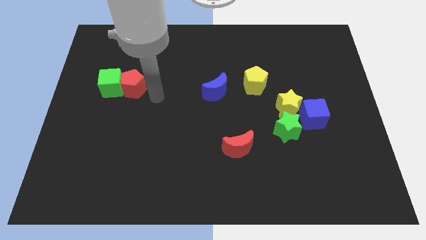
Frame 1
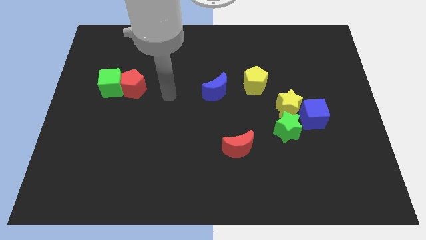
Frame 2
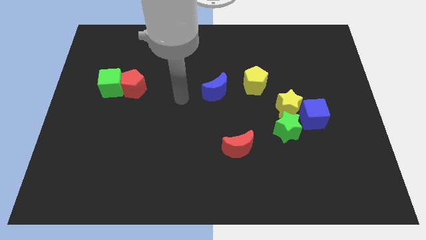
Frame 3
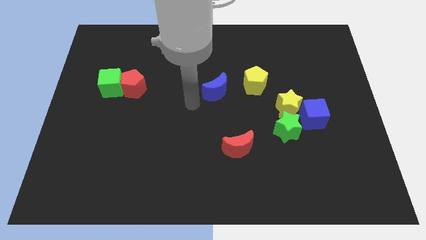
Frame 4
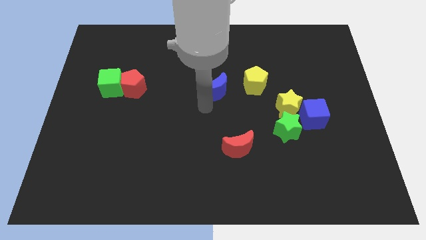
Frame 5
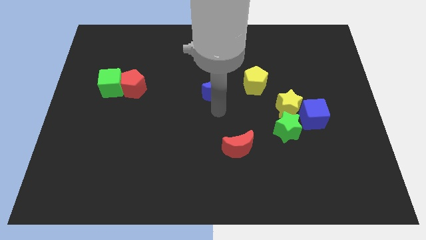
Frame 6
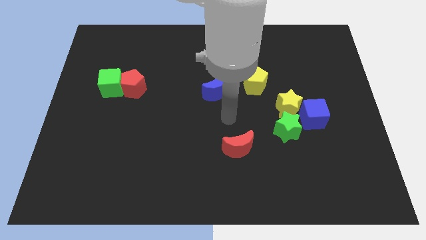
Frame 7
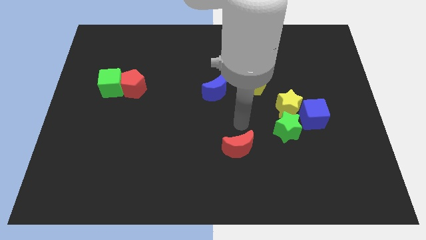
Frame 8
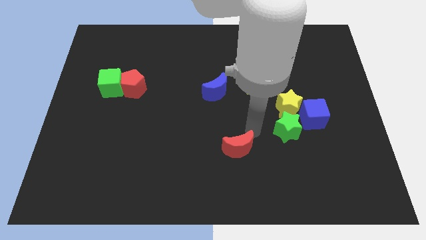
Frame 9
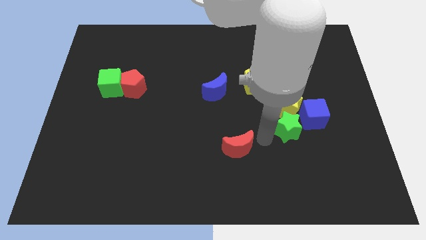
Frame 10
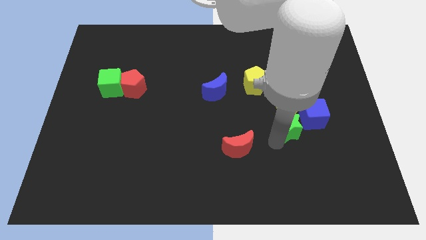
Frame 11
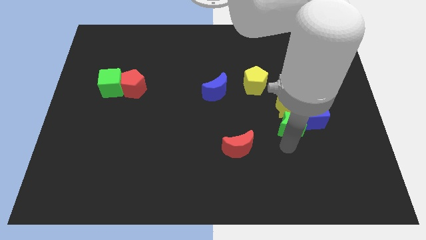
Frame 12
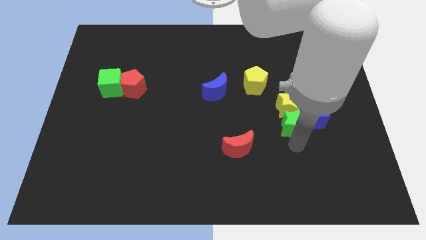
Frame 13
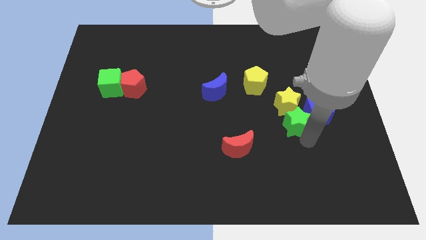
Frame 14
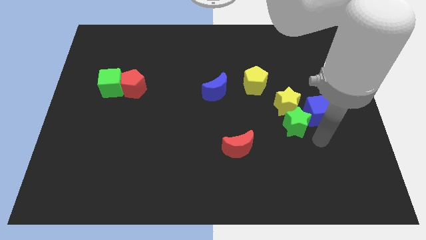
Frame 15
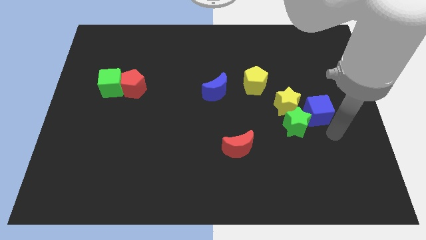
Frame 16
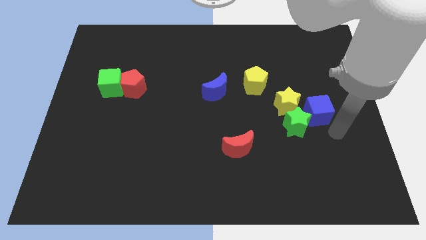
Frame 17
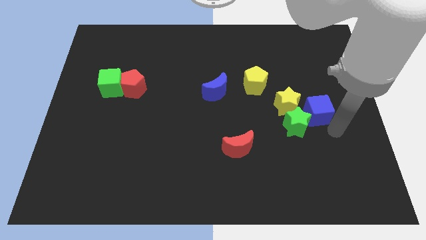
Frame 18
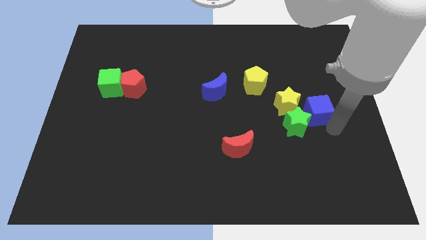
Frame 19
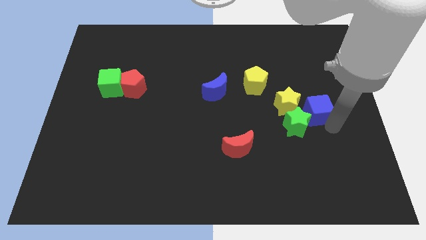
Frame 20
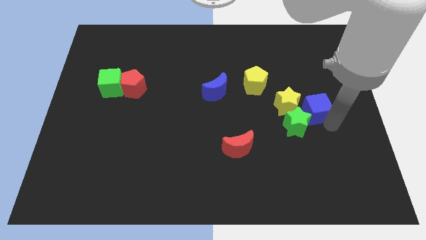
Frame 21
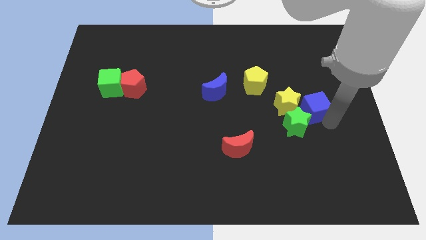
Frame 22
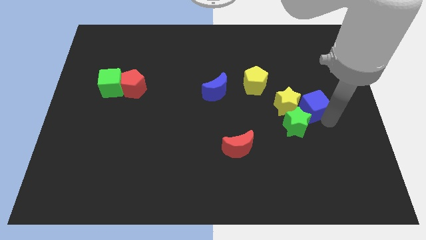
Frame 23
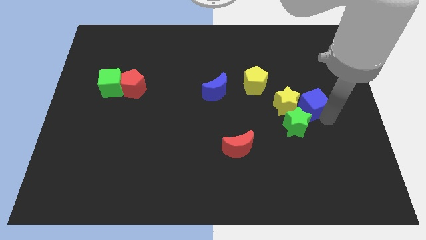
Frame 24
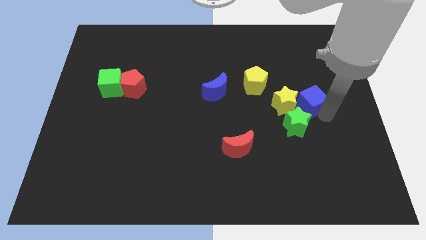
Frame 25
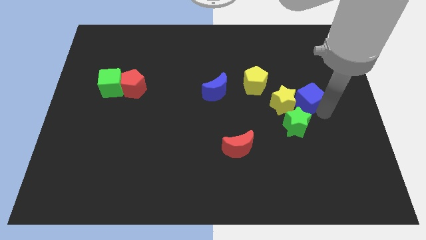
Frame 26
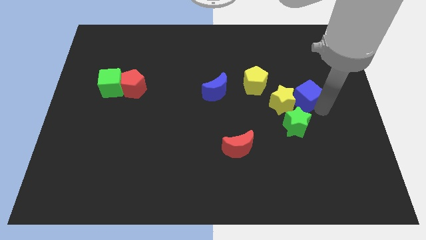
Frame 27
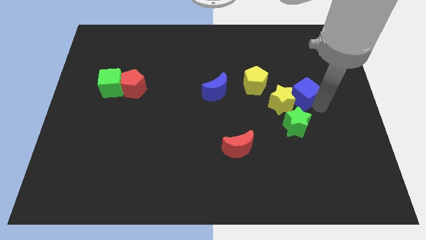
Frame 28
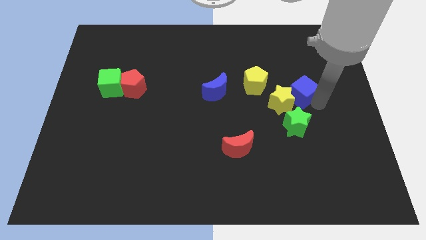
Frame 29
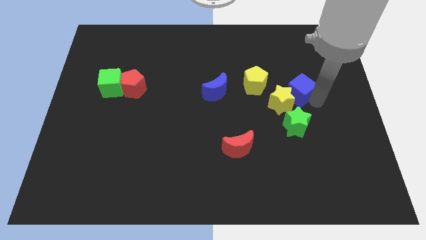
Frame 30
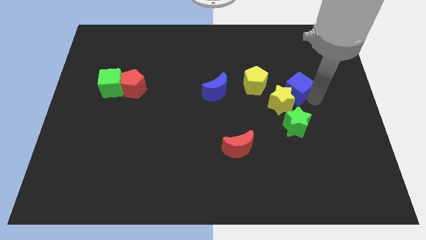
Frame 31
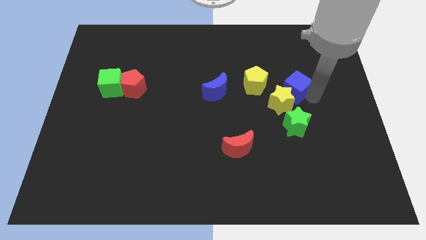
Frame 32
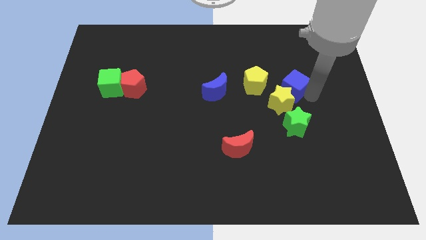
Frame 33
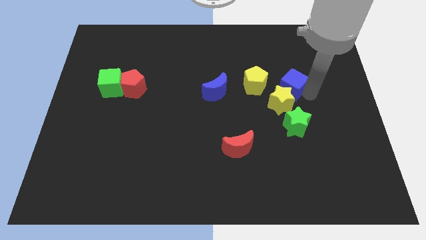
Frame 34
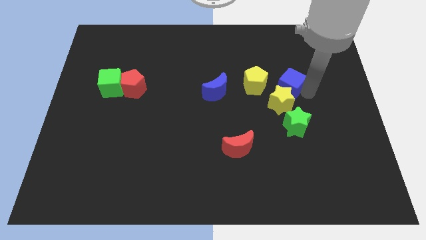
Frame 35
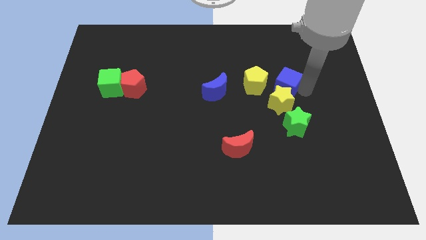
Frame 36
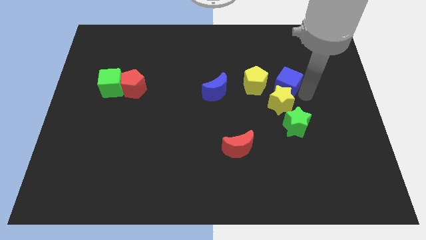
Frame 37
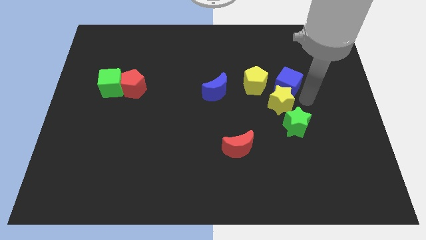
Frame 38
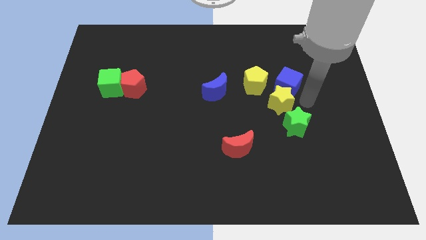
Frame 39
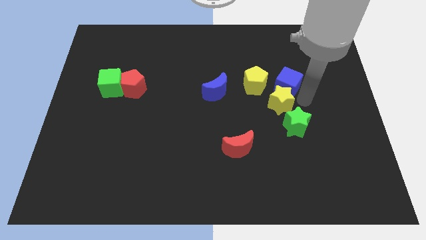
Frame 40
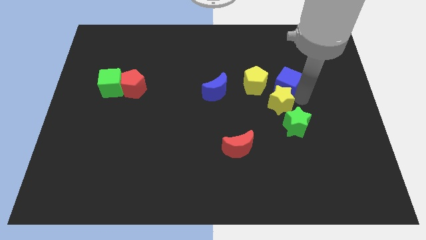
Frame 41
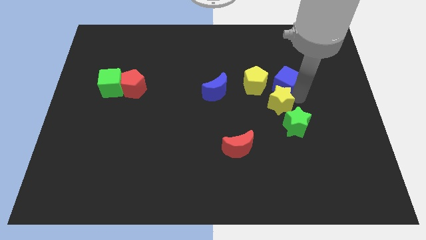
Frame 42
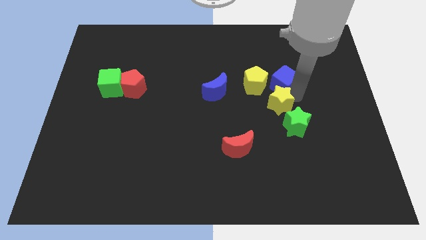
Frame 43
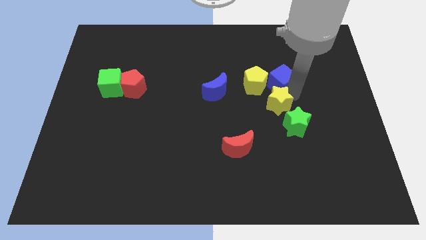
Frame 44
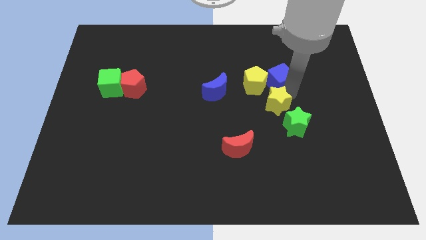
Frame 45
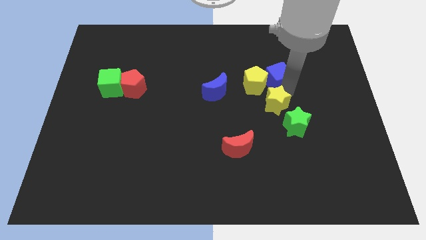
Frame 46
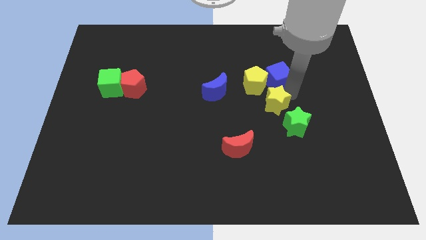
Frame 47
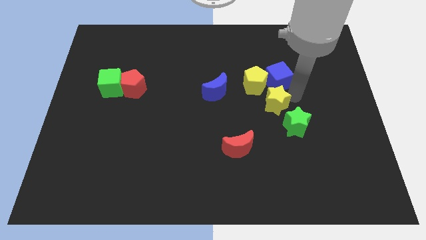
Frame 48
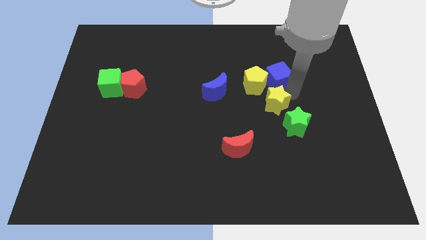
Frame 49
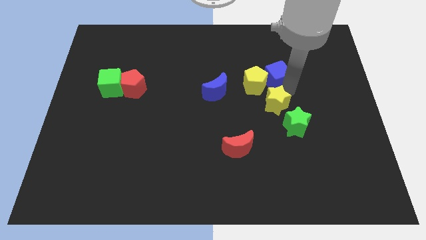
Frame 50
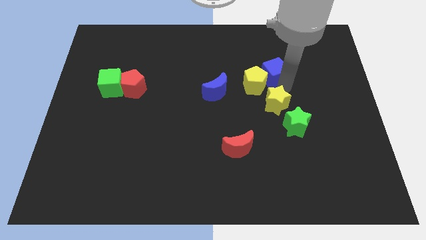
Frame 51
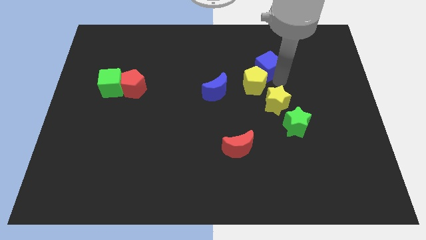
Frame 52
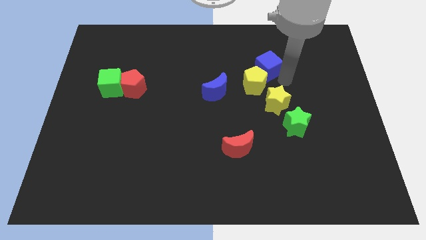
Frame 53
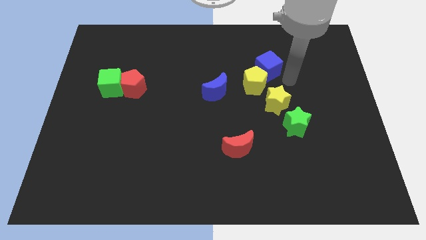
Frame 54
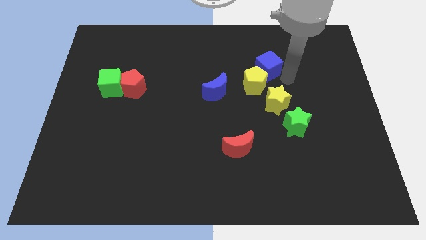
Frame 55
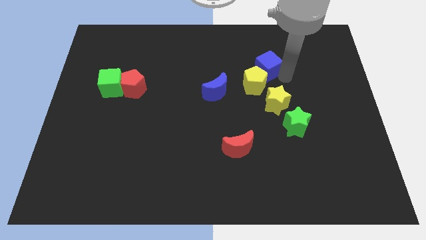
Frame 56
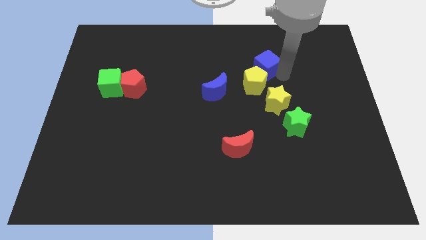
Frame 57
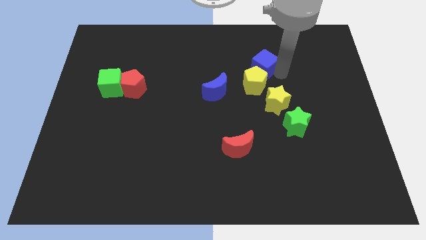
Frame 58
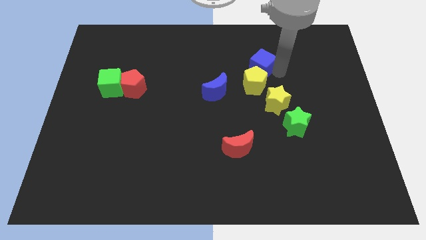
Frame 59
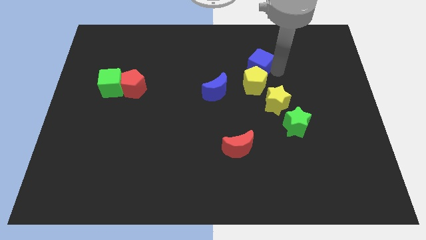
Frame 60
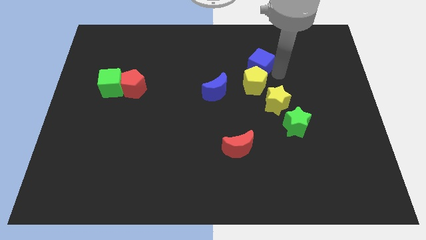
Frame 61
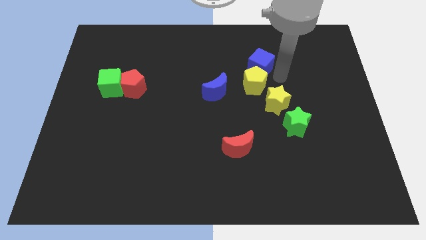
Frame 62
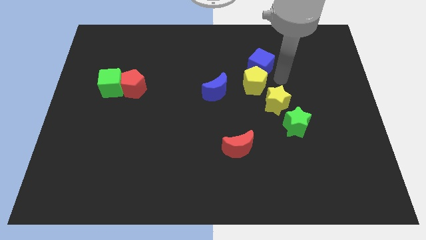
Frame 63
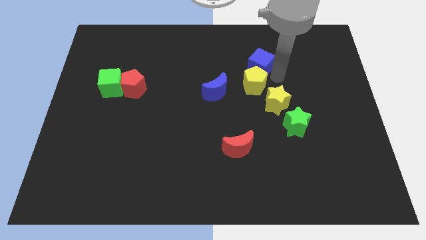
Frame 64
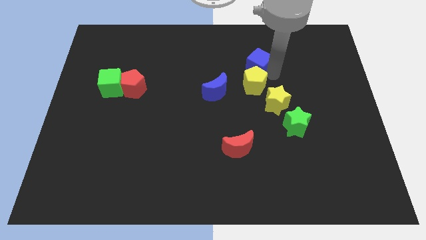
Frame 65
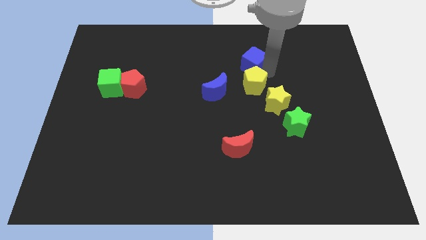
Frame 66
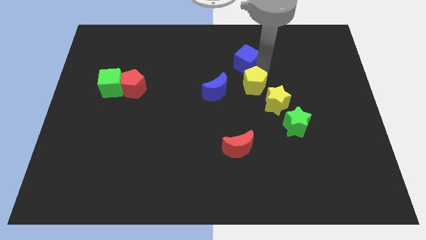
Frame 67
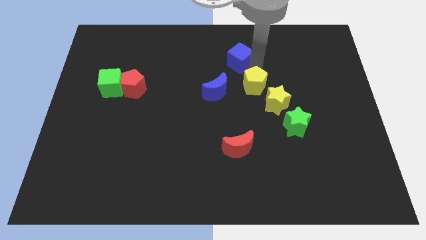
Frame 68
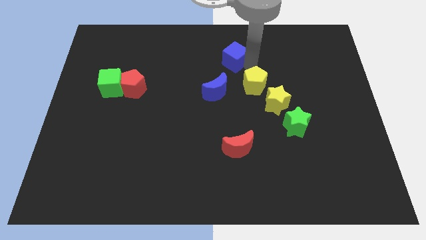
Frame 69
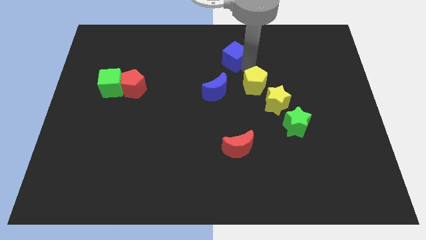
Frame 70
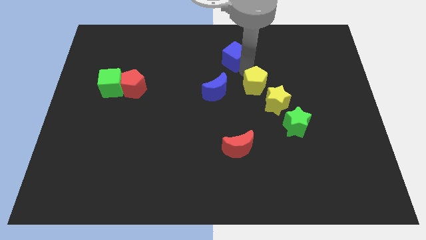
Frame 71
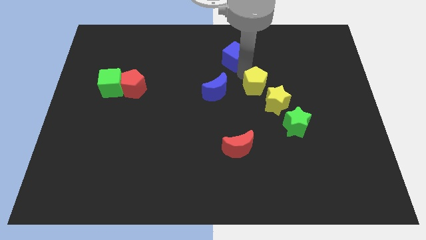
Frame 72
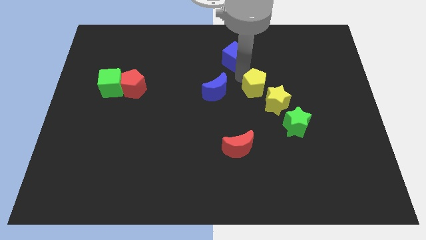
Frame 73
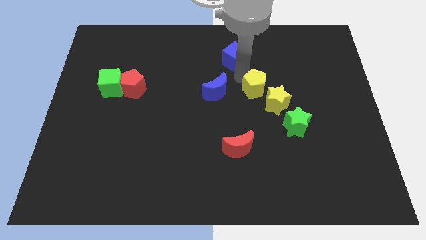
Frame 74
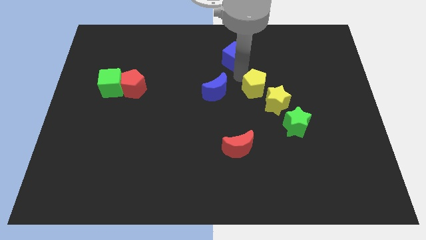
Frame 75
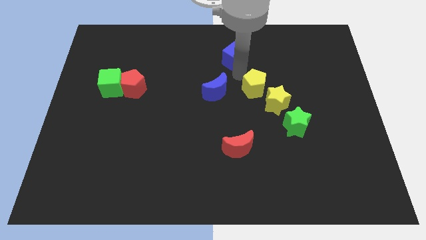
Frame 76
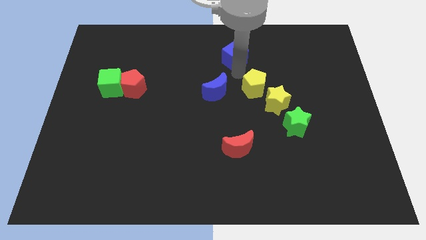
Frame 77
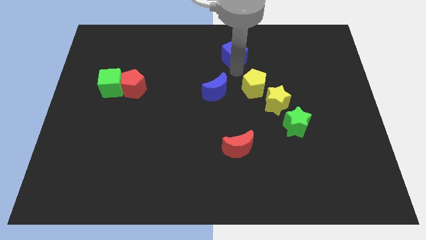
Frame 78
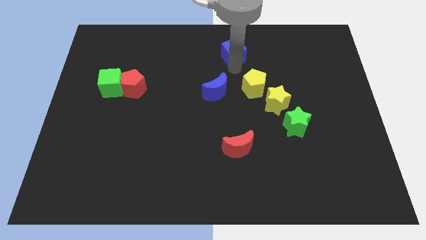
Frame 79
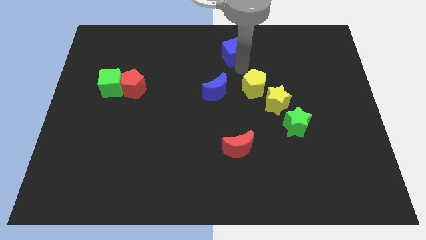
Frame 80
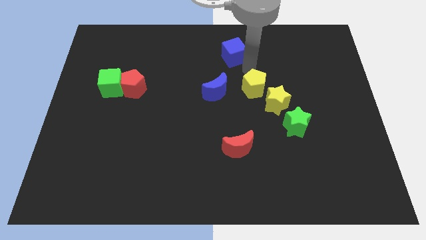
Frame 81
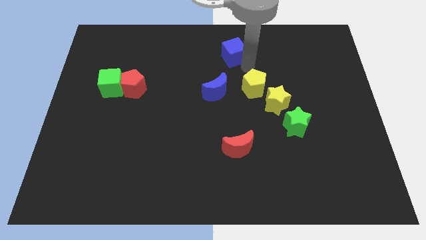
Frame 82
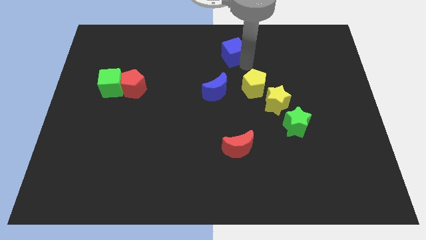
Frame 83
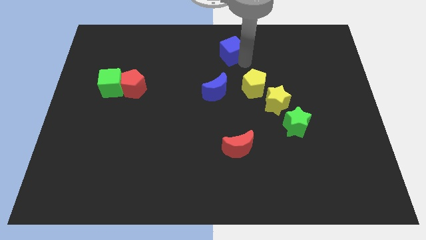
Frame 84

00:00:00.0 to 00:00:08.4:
move the blue cube to the top side
